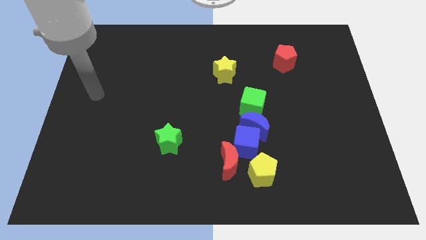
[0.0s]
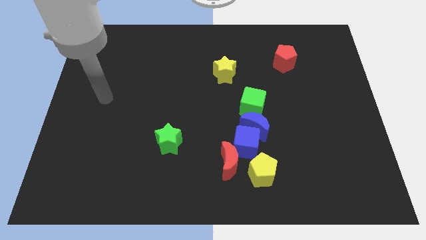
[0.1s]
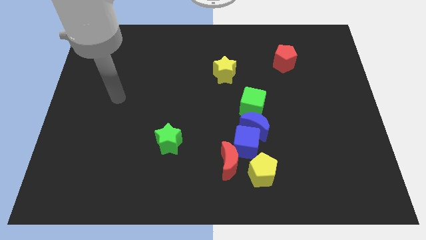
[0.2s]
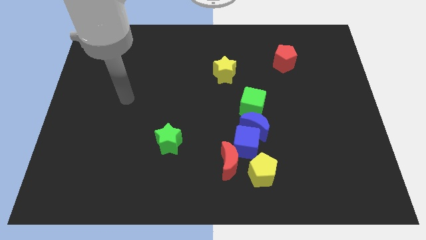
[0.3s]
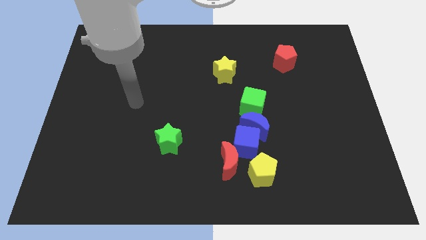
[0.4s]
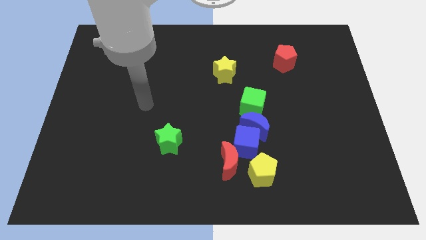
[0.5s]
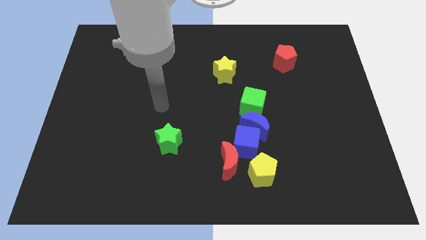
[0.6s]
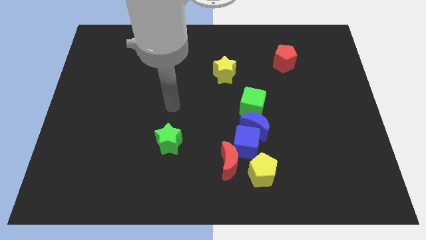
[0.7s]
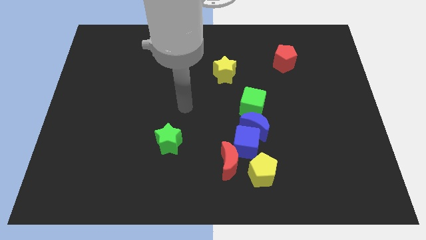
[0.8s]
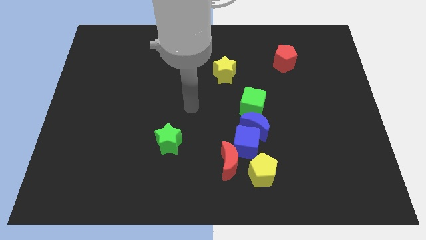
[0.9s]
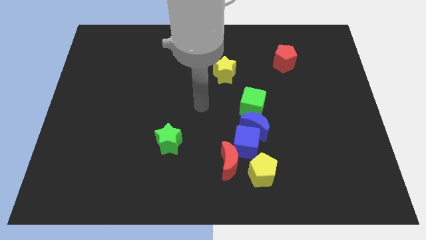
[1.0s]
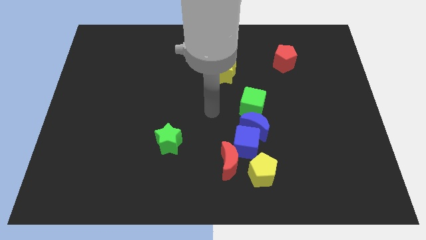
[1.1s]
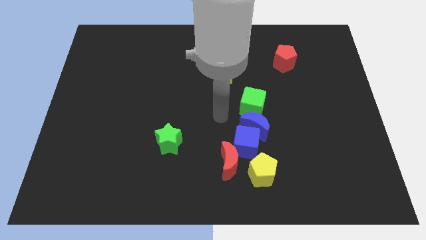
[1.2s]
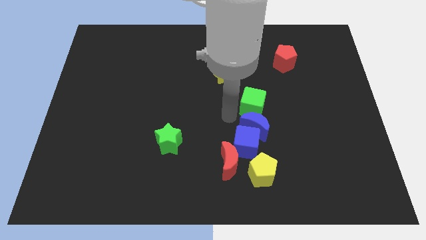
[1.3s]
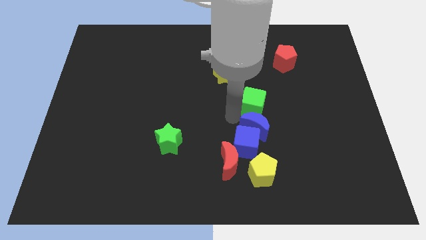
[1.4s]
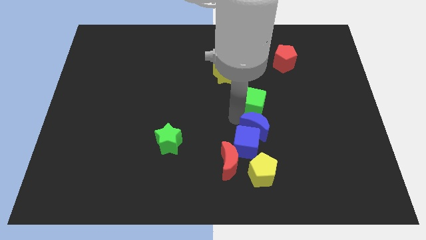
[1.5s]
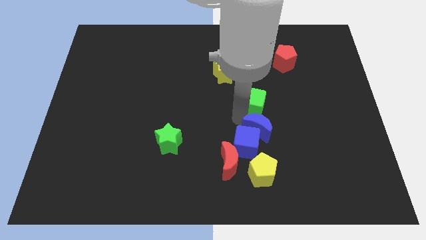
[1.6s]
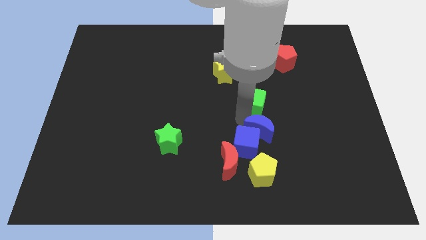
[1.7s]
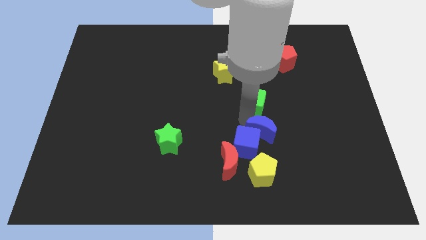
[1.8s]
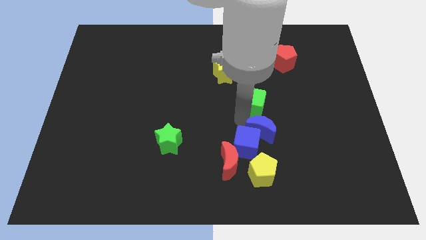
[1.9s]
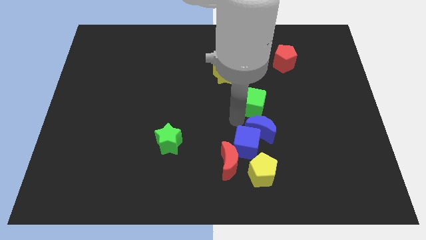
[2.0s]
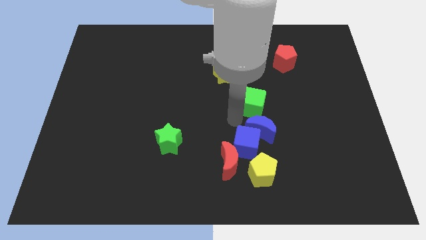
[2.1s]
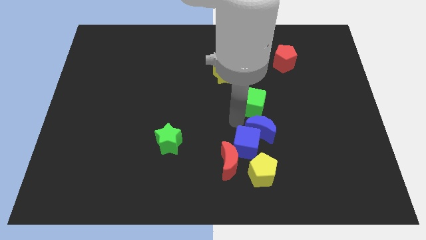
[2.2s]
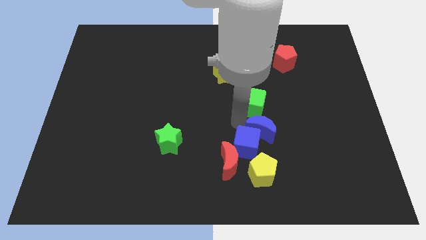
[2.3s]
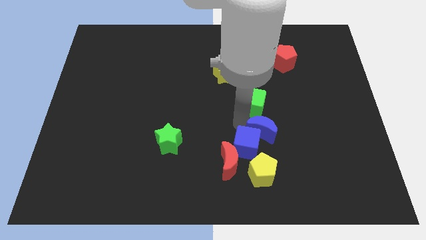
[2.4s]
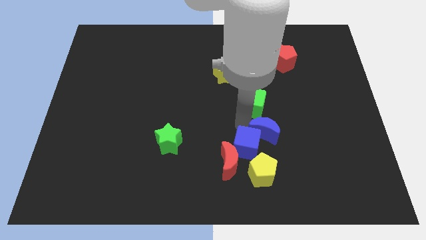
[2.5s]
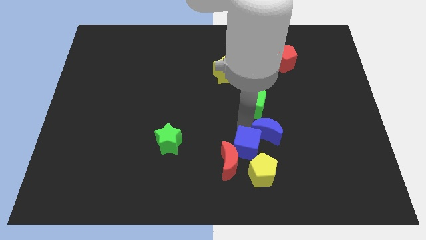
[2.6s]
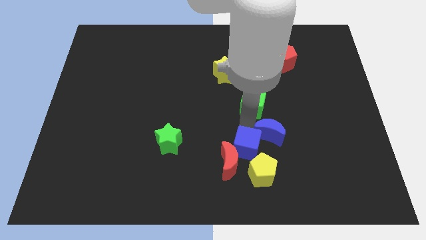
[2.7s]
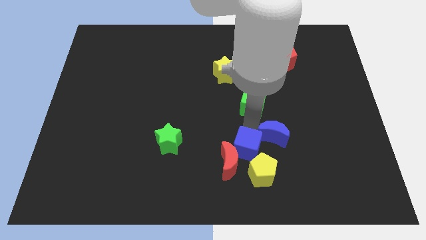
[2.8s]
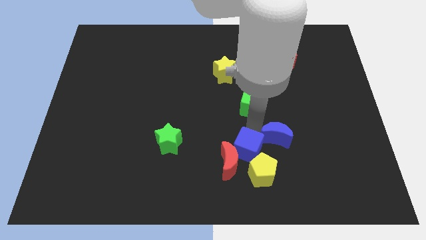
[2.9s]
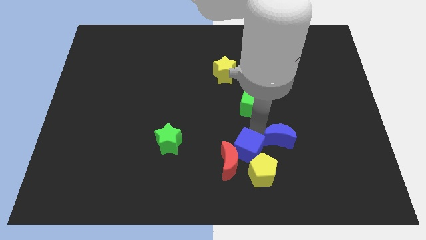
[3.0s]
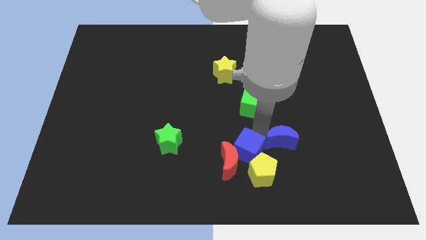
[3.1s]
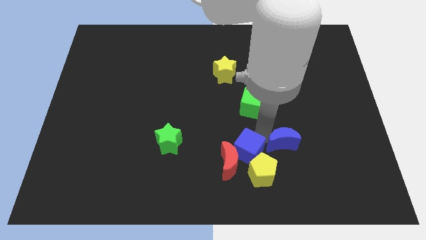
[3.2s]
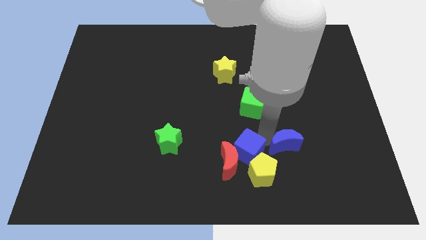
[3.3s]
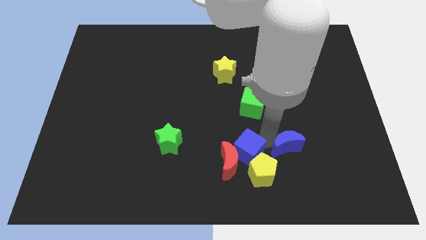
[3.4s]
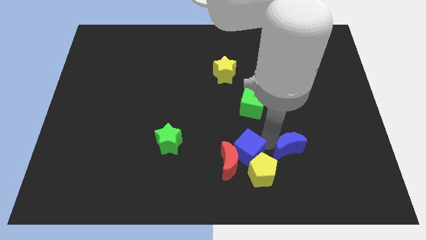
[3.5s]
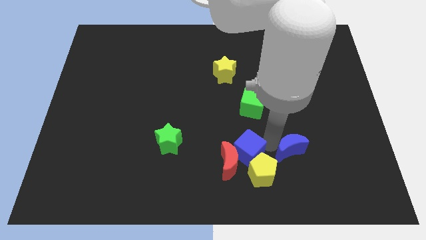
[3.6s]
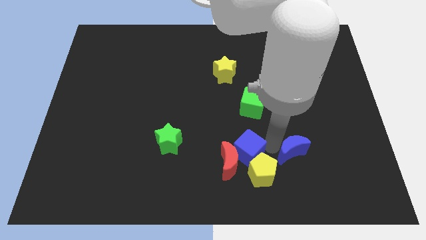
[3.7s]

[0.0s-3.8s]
pull the blue moon apart from the blue cube and green cube

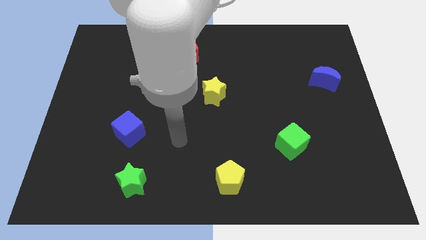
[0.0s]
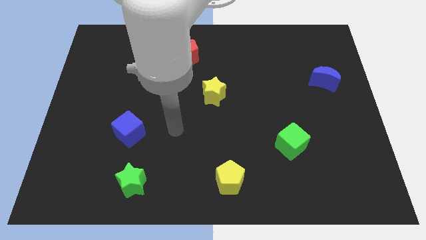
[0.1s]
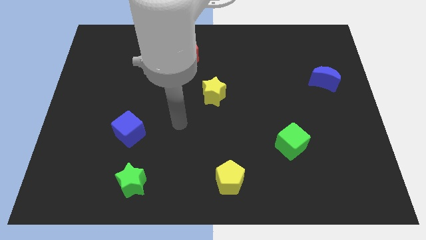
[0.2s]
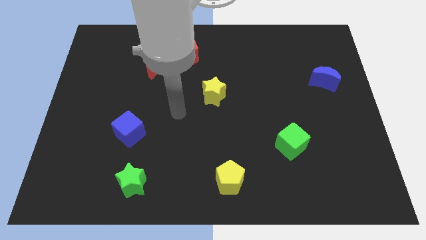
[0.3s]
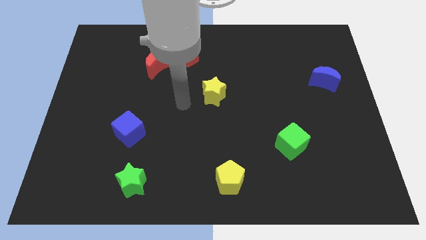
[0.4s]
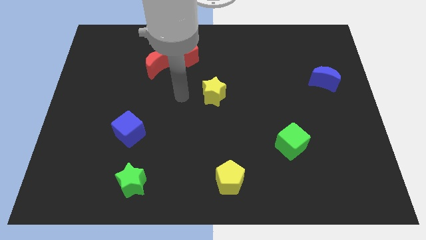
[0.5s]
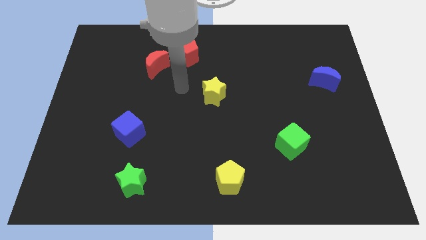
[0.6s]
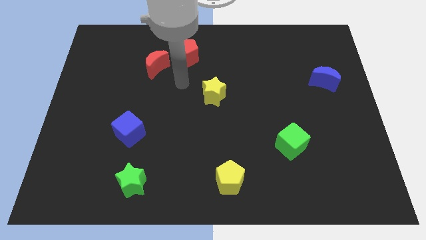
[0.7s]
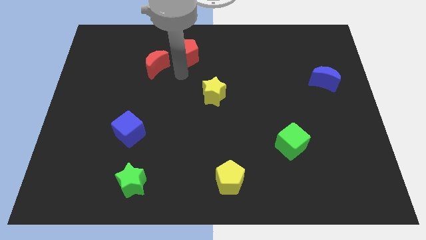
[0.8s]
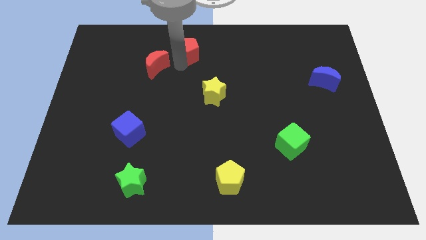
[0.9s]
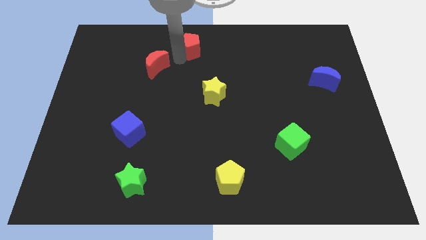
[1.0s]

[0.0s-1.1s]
pull the red moon apart from the red pentagon

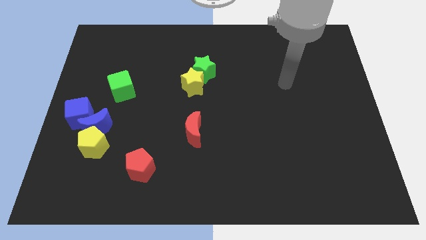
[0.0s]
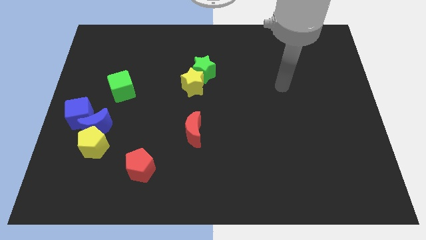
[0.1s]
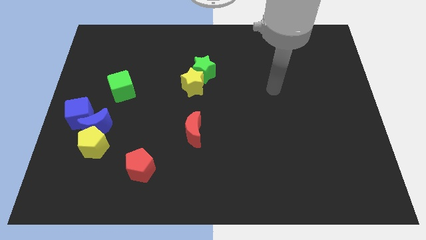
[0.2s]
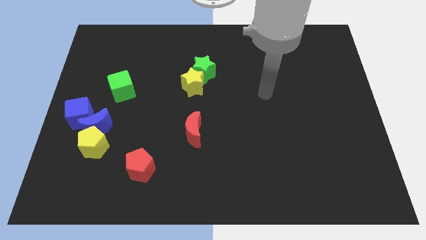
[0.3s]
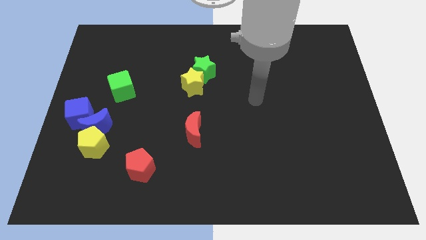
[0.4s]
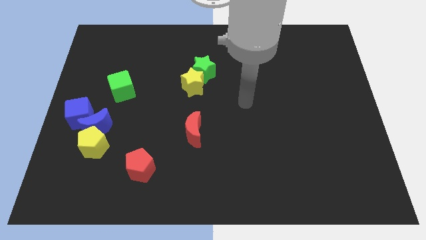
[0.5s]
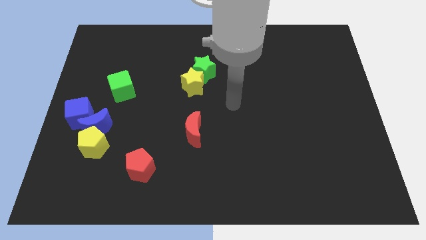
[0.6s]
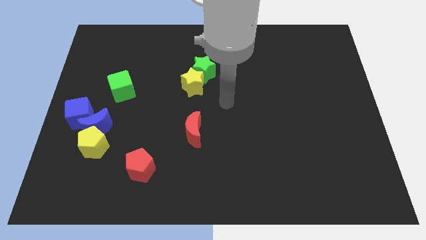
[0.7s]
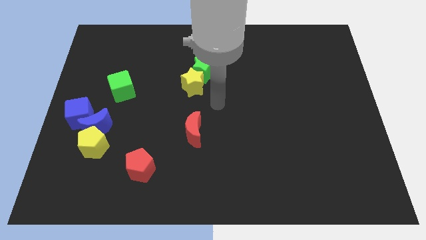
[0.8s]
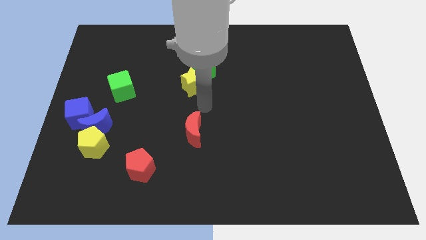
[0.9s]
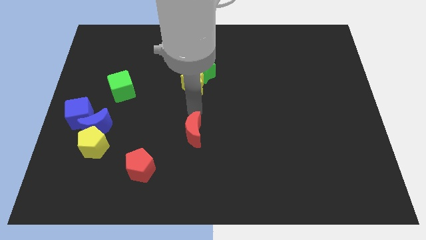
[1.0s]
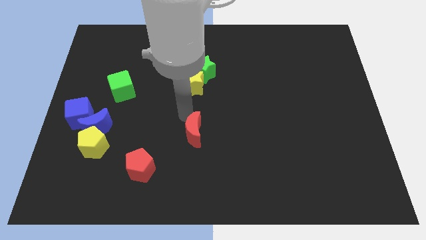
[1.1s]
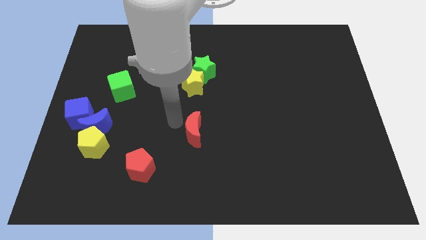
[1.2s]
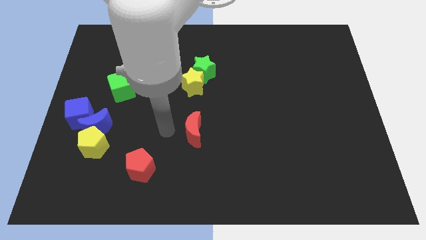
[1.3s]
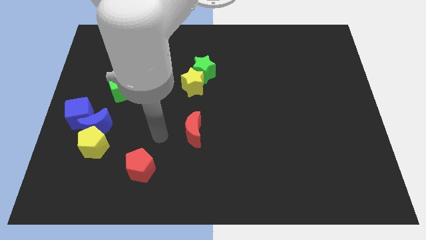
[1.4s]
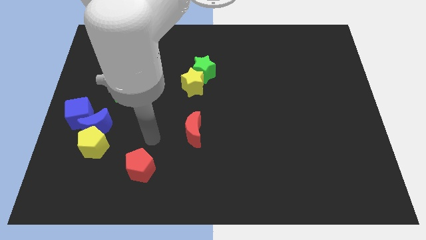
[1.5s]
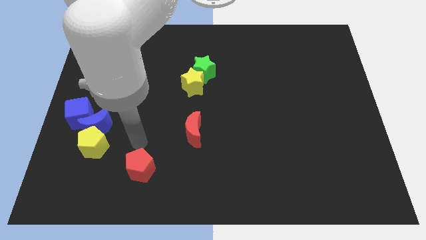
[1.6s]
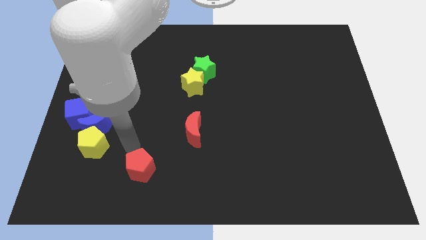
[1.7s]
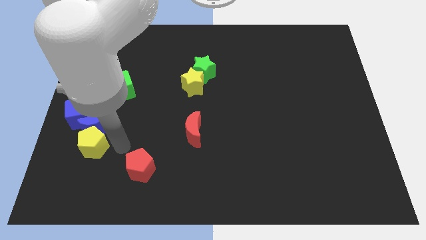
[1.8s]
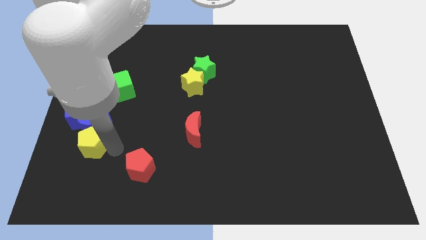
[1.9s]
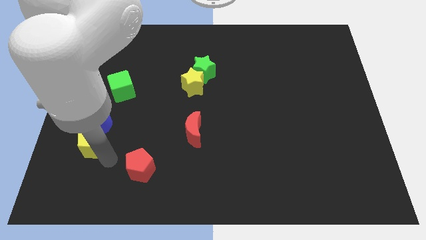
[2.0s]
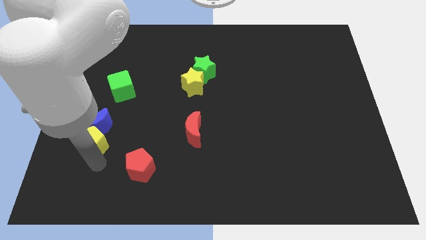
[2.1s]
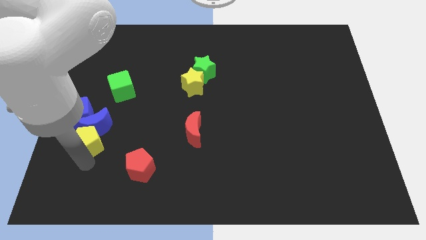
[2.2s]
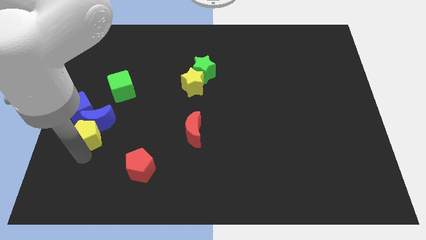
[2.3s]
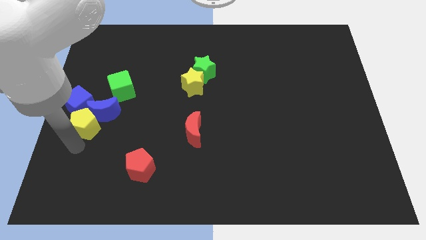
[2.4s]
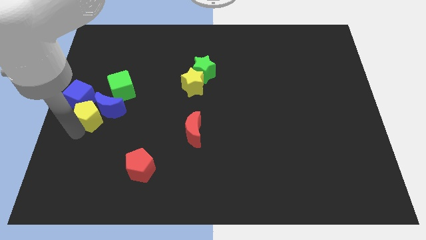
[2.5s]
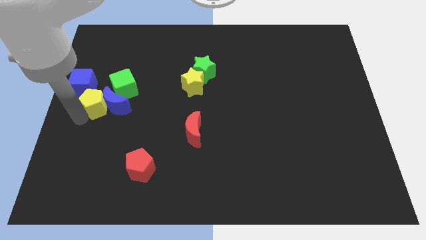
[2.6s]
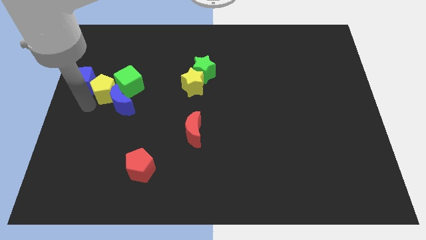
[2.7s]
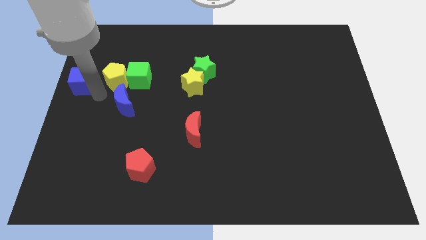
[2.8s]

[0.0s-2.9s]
separate the blue moon from the yellow pentagon and blue cube

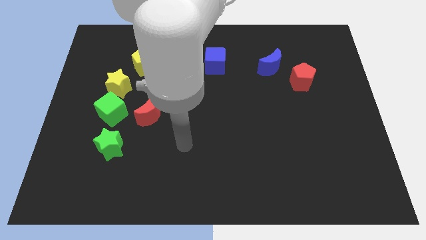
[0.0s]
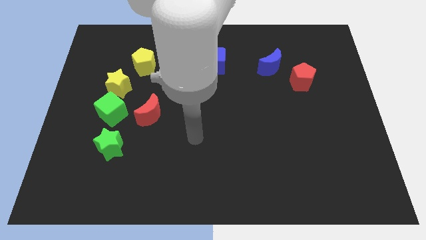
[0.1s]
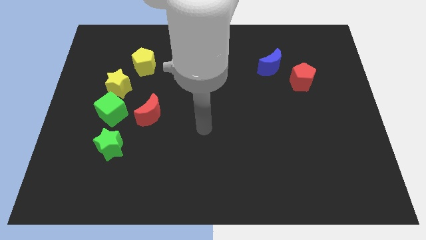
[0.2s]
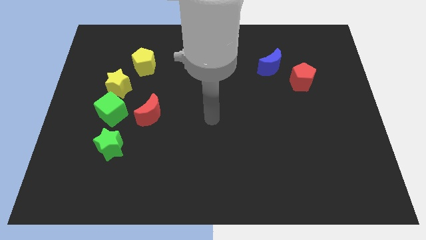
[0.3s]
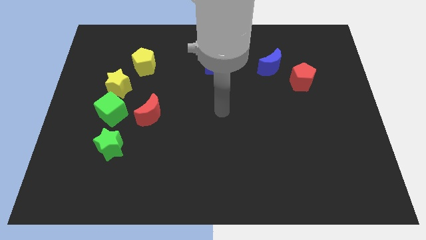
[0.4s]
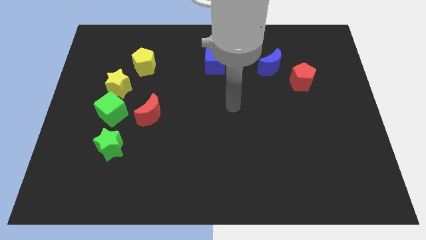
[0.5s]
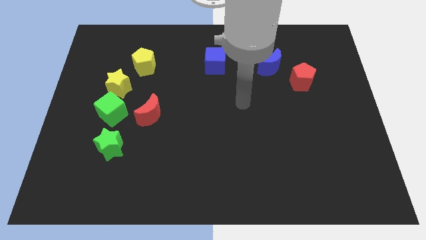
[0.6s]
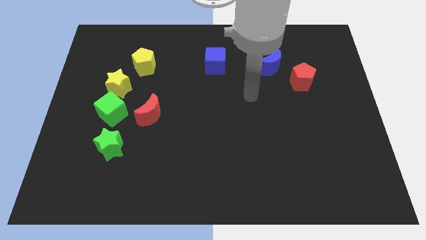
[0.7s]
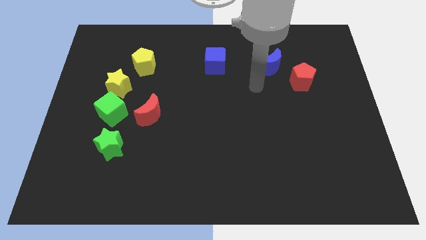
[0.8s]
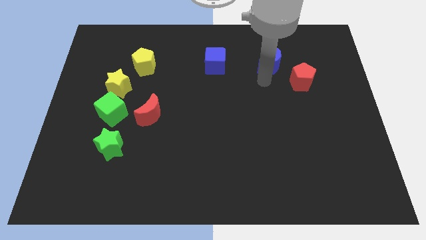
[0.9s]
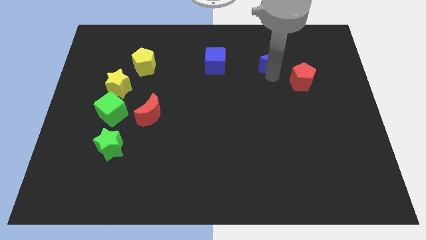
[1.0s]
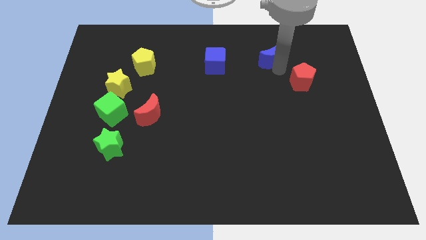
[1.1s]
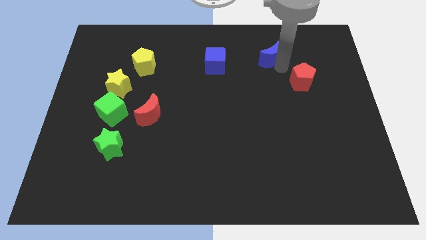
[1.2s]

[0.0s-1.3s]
pull the red pentagon apart from the blue moon

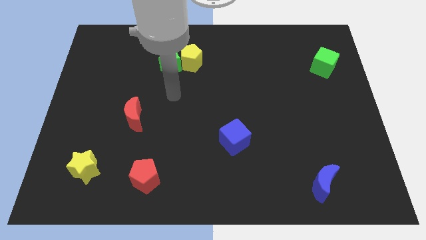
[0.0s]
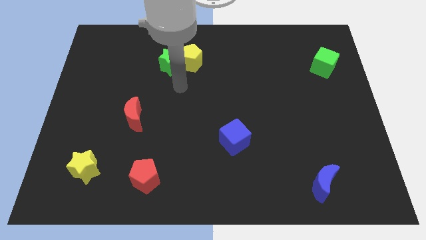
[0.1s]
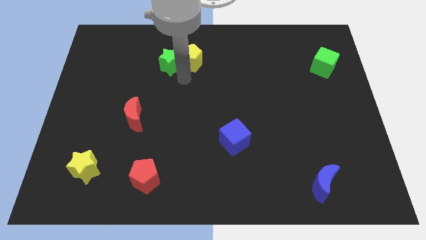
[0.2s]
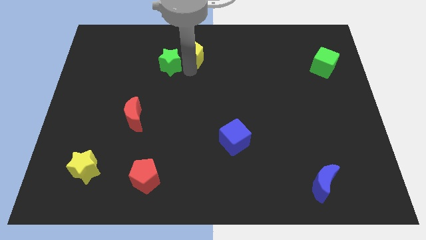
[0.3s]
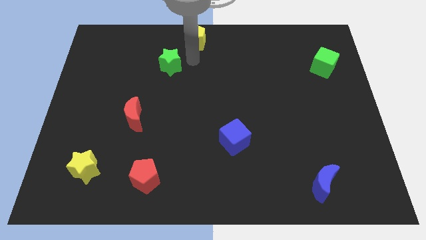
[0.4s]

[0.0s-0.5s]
pull the green star apart from the yellow pentagon
